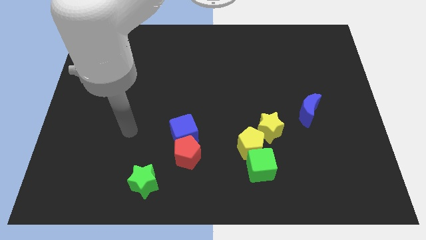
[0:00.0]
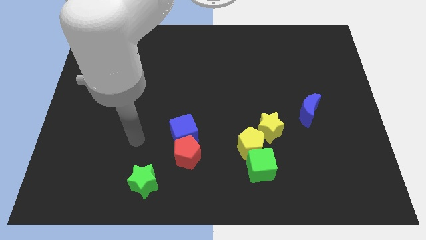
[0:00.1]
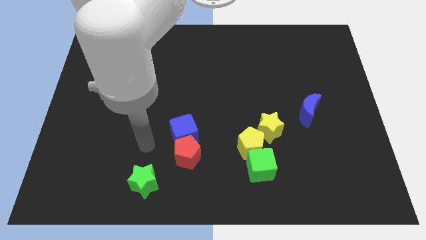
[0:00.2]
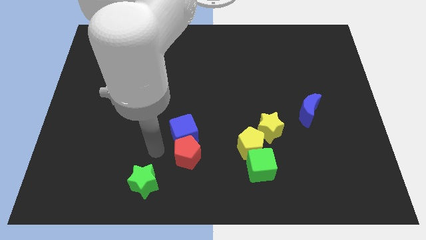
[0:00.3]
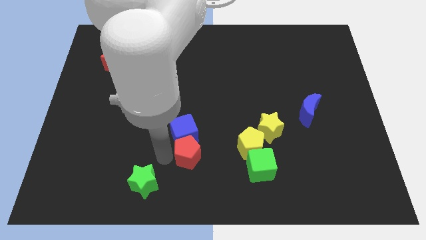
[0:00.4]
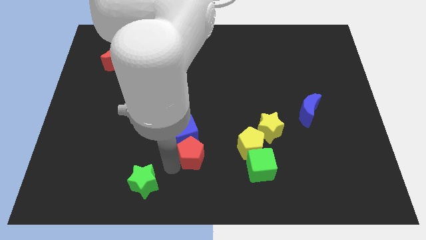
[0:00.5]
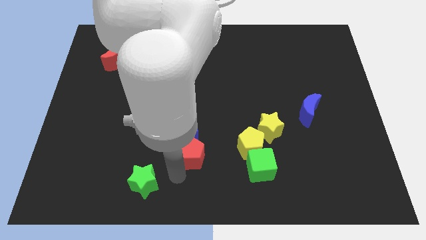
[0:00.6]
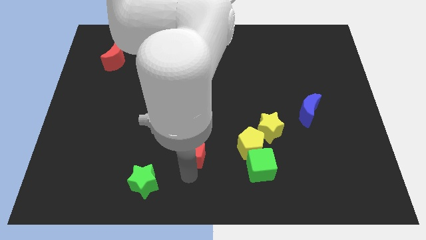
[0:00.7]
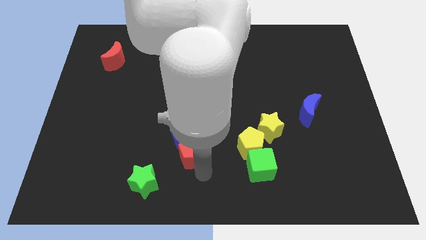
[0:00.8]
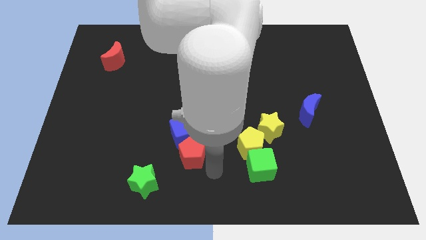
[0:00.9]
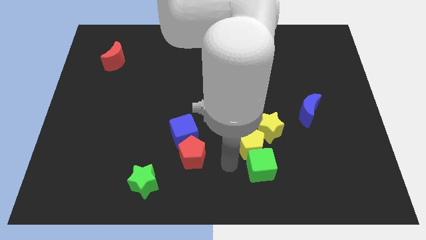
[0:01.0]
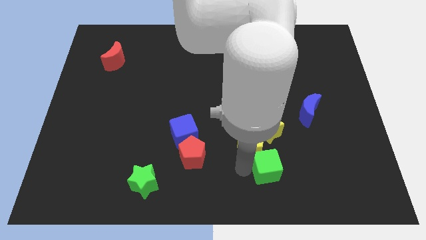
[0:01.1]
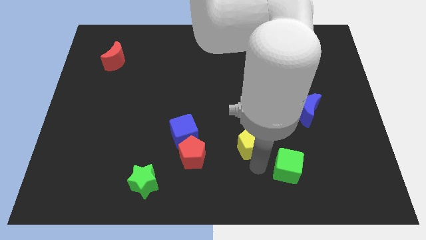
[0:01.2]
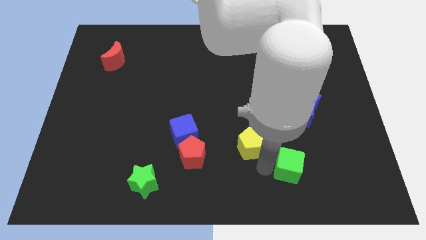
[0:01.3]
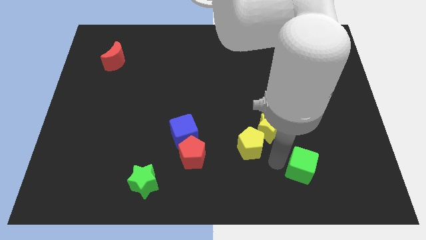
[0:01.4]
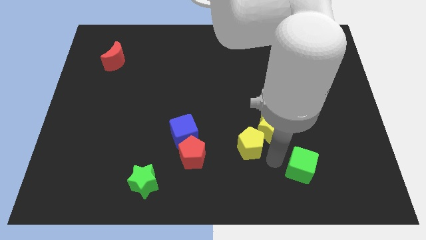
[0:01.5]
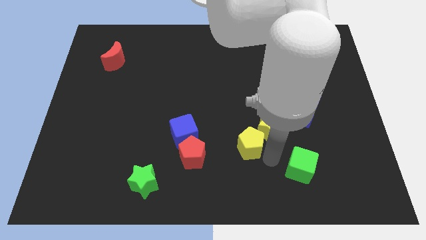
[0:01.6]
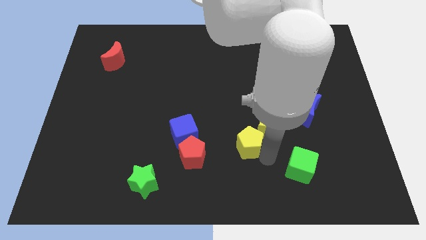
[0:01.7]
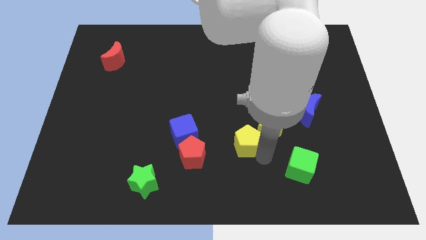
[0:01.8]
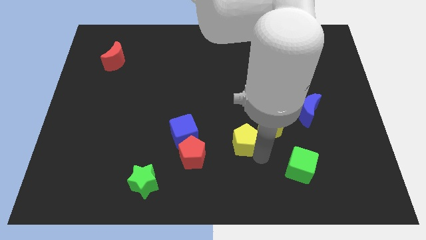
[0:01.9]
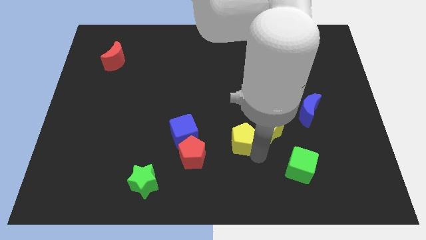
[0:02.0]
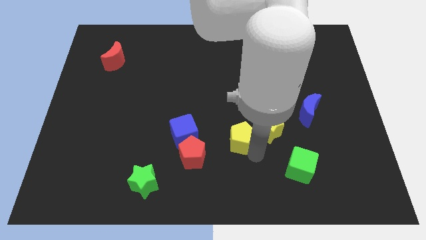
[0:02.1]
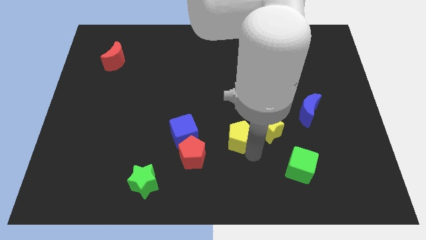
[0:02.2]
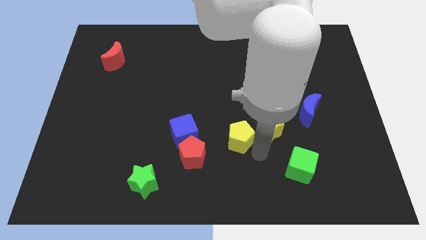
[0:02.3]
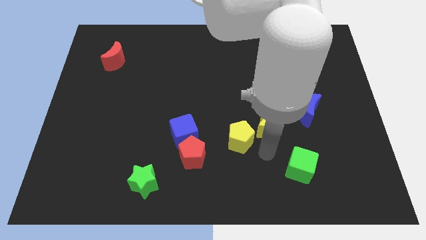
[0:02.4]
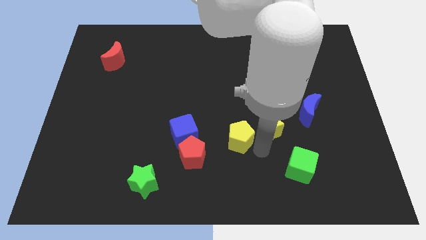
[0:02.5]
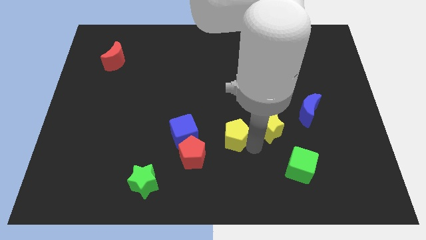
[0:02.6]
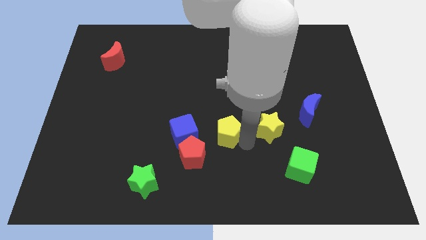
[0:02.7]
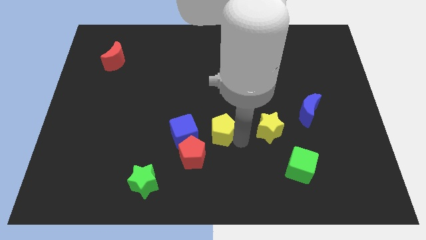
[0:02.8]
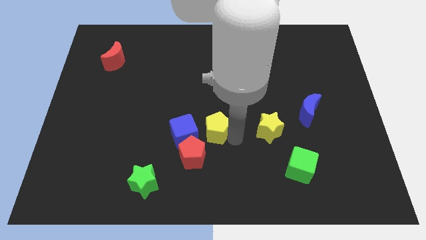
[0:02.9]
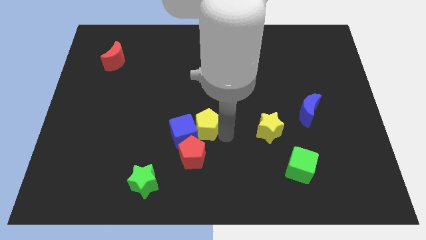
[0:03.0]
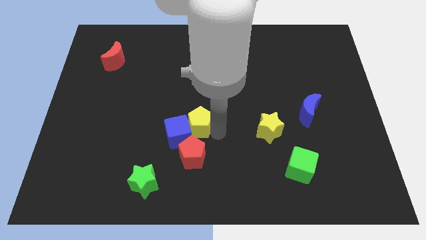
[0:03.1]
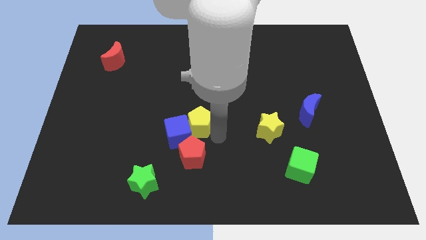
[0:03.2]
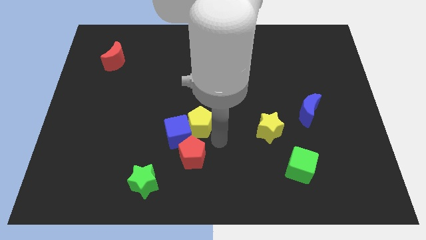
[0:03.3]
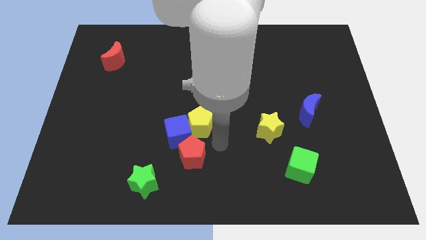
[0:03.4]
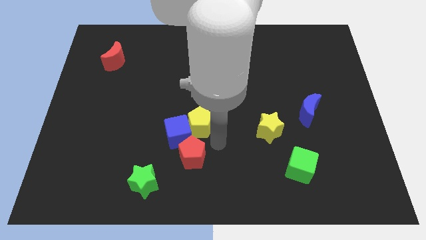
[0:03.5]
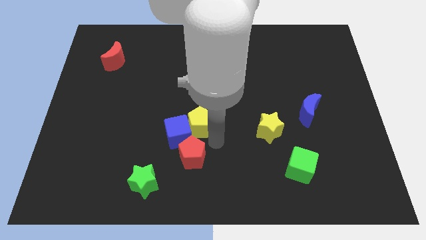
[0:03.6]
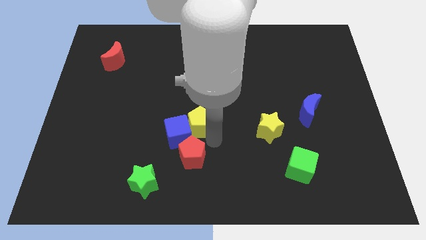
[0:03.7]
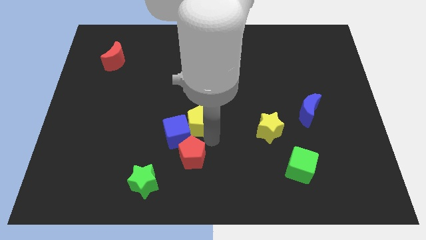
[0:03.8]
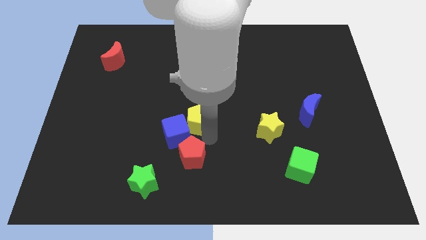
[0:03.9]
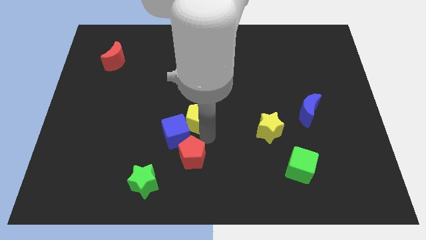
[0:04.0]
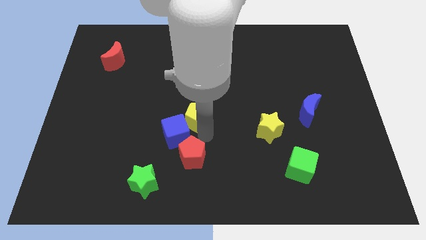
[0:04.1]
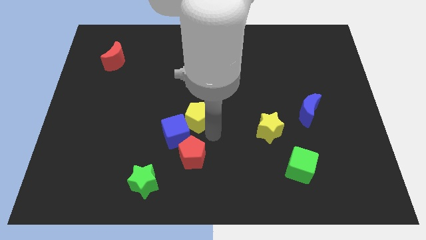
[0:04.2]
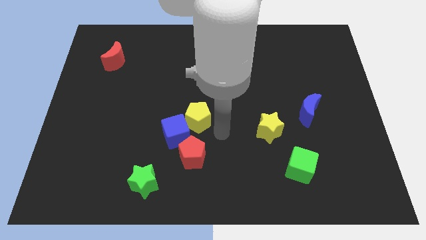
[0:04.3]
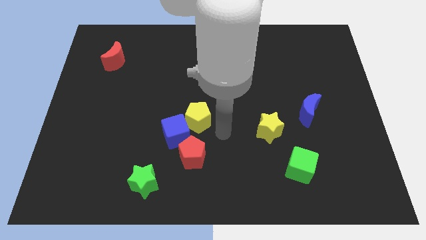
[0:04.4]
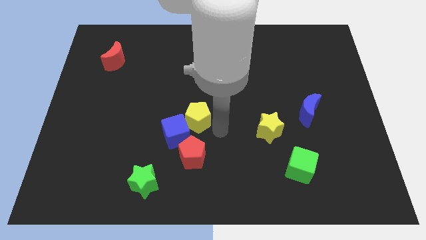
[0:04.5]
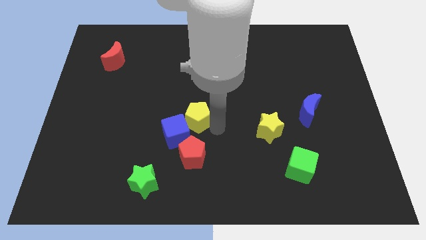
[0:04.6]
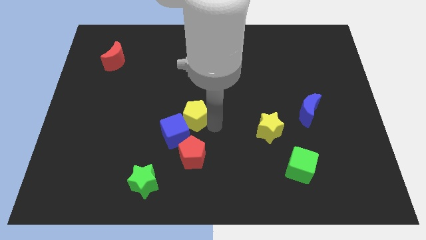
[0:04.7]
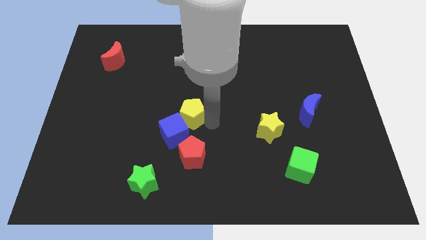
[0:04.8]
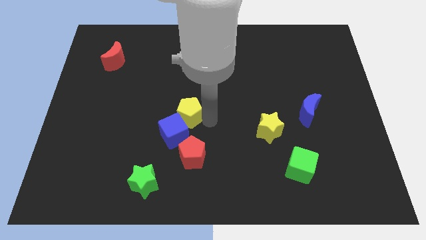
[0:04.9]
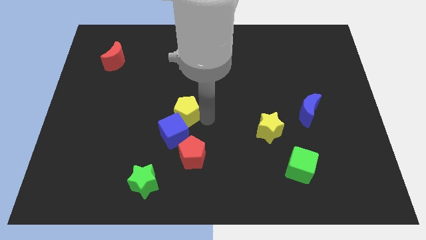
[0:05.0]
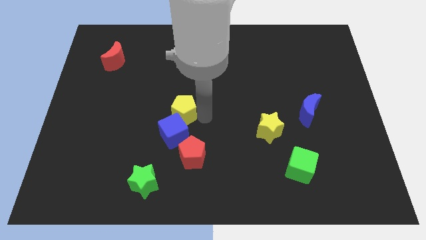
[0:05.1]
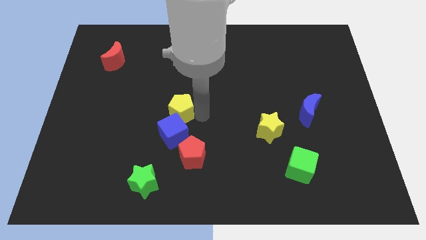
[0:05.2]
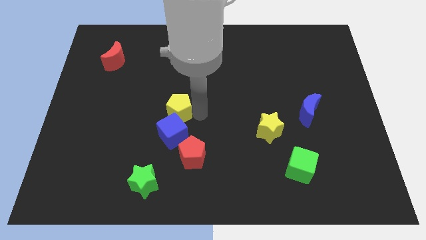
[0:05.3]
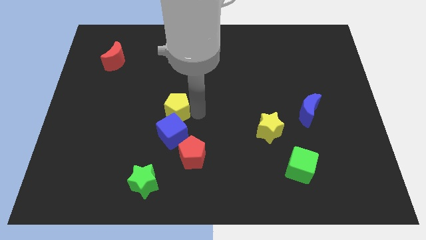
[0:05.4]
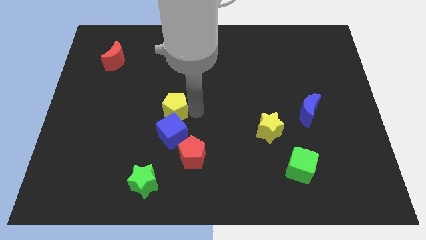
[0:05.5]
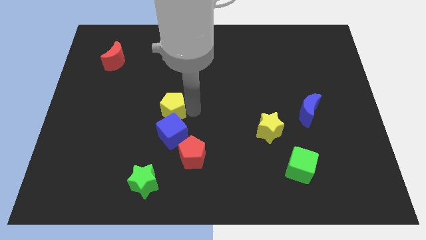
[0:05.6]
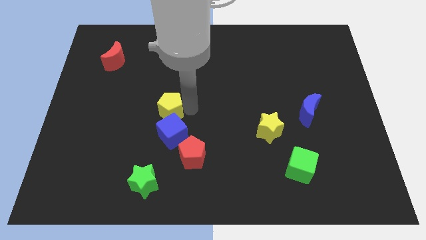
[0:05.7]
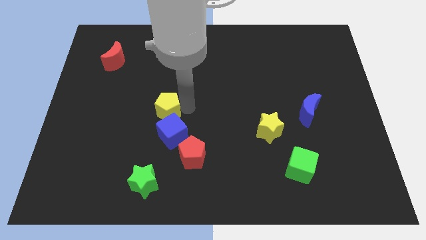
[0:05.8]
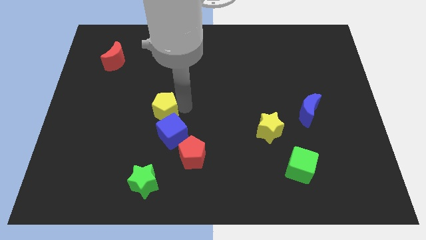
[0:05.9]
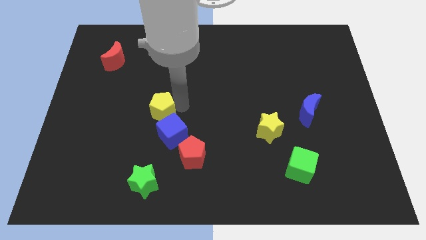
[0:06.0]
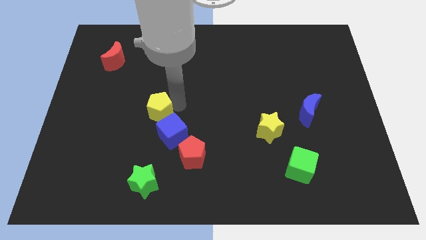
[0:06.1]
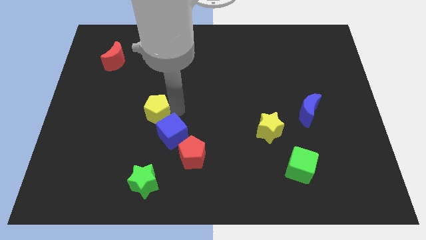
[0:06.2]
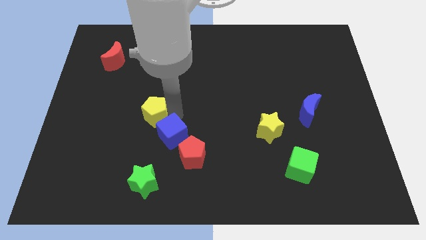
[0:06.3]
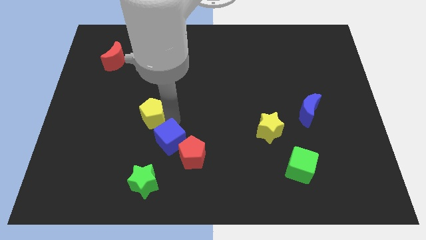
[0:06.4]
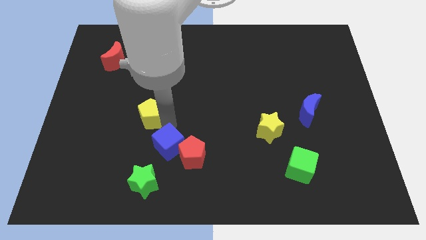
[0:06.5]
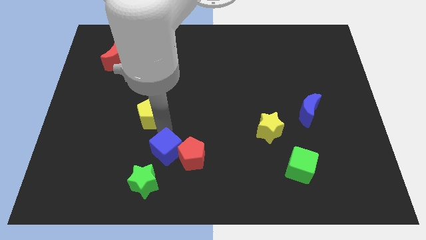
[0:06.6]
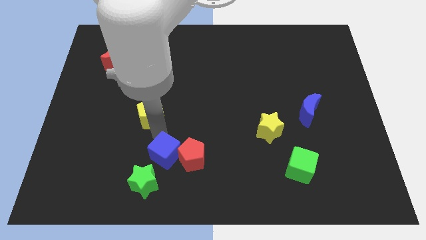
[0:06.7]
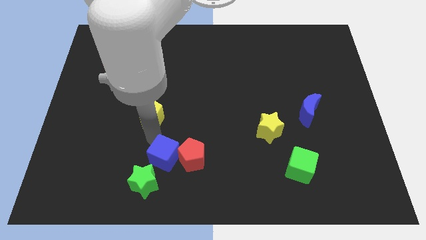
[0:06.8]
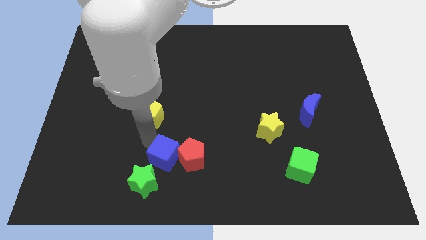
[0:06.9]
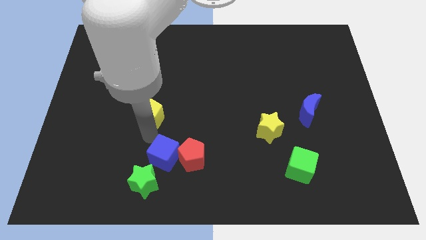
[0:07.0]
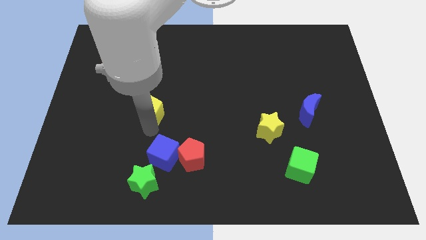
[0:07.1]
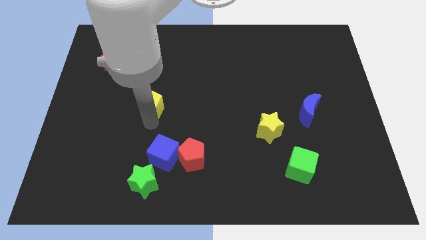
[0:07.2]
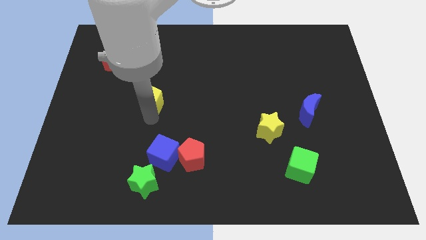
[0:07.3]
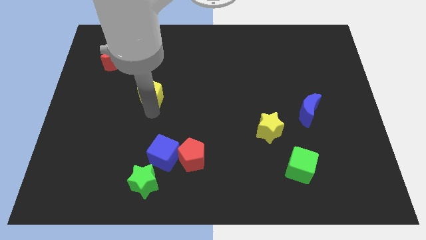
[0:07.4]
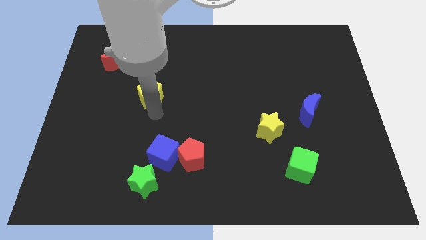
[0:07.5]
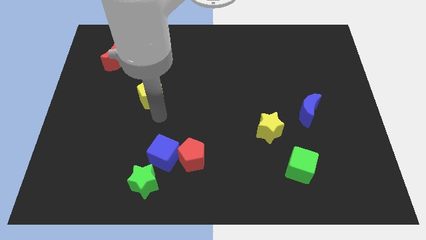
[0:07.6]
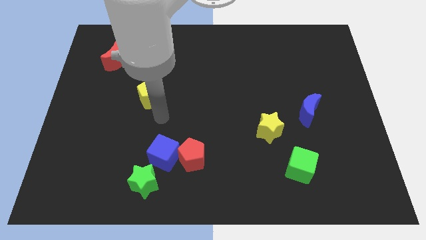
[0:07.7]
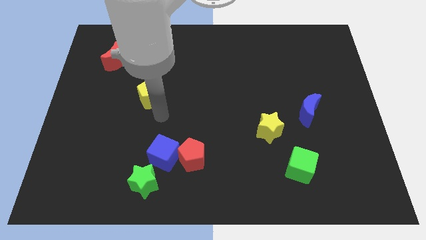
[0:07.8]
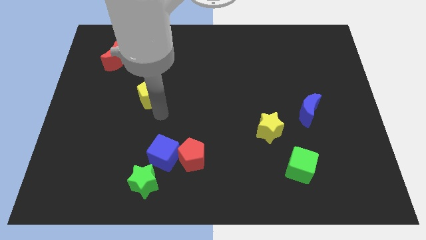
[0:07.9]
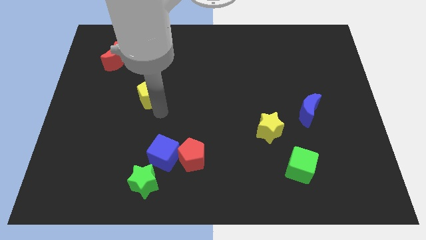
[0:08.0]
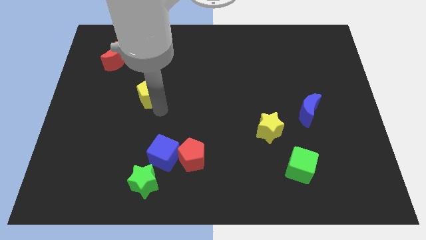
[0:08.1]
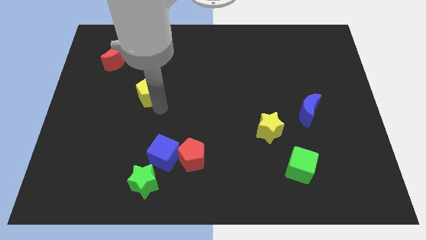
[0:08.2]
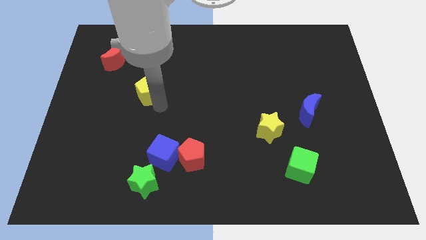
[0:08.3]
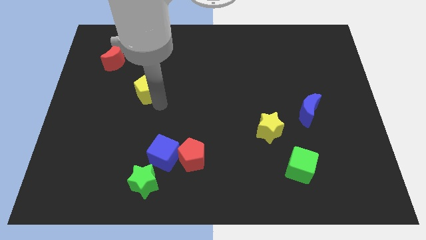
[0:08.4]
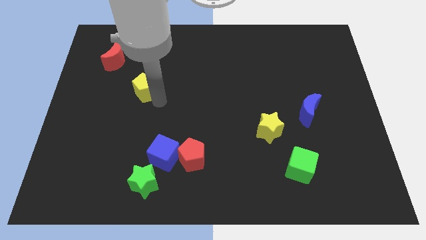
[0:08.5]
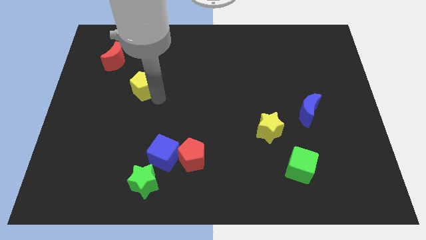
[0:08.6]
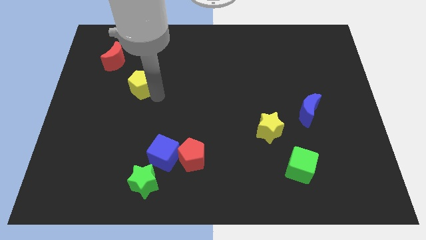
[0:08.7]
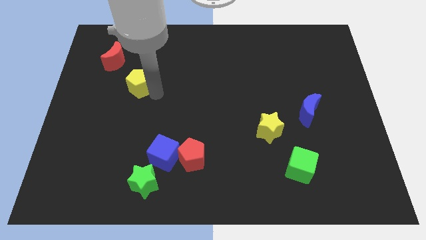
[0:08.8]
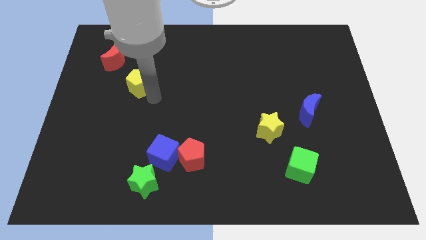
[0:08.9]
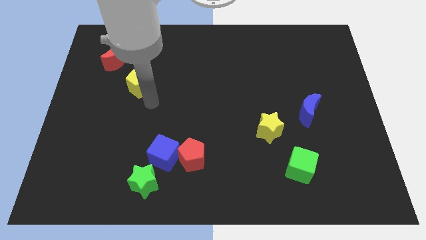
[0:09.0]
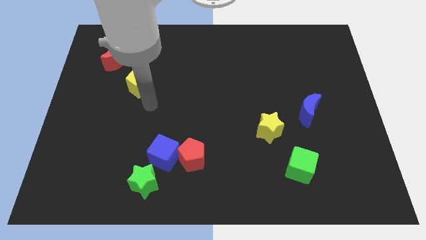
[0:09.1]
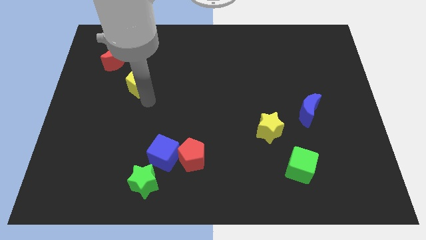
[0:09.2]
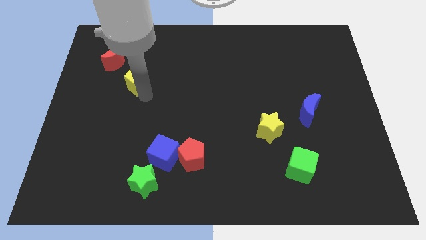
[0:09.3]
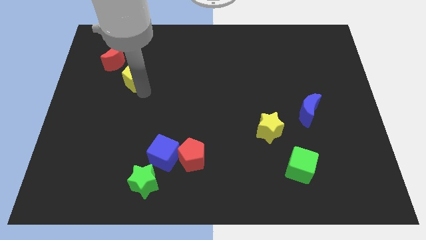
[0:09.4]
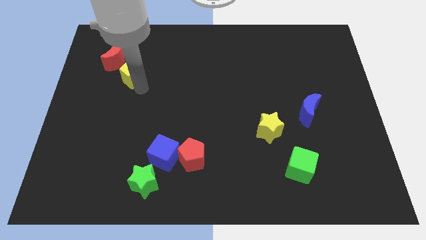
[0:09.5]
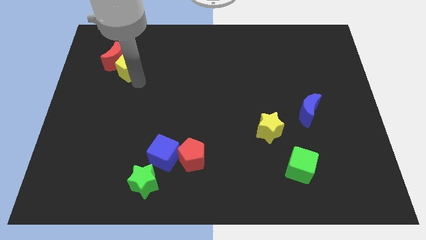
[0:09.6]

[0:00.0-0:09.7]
move the yellow pentagon next to the red moon
